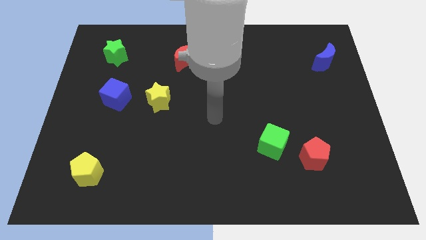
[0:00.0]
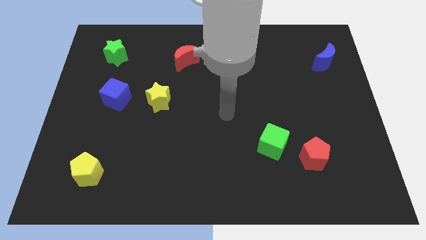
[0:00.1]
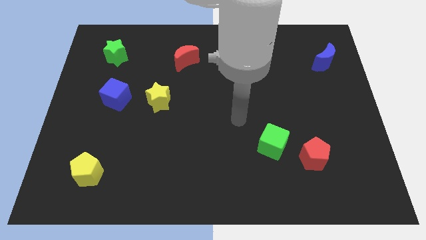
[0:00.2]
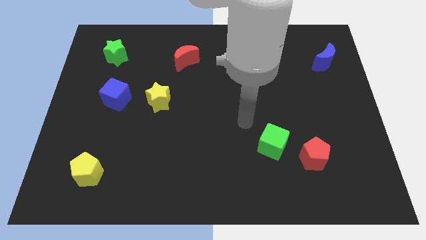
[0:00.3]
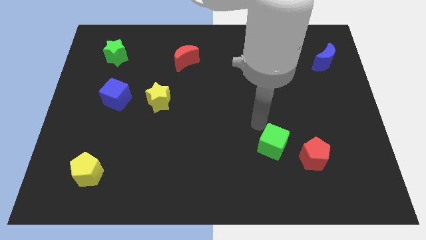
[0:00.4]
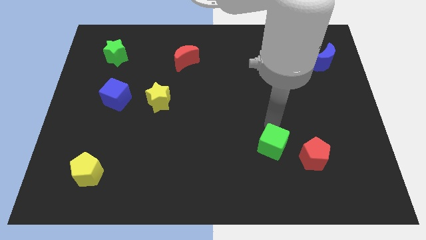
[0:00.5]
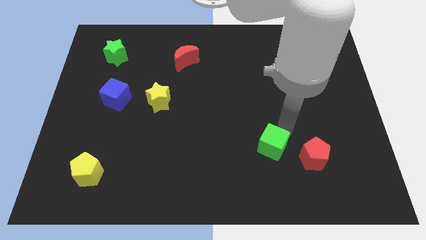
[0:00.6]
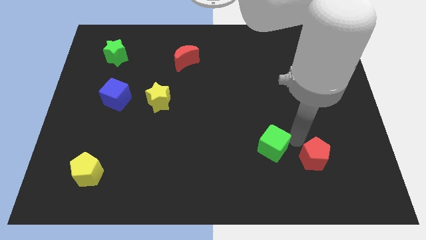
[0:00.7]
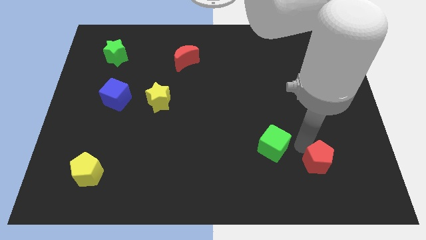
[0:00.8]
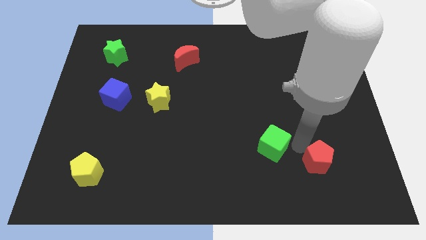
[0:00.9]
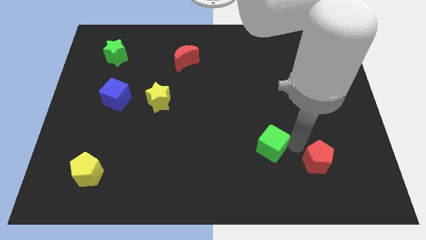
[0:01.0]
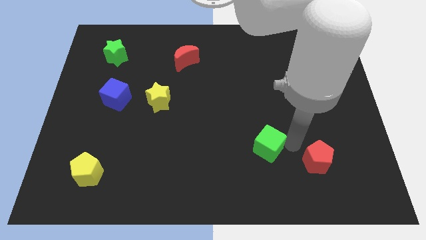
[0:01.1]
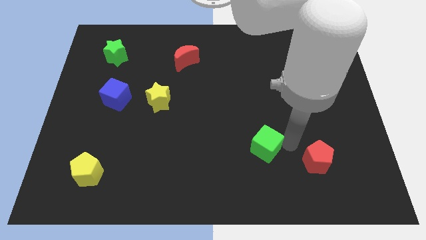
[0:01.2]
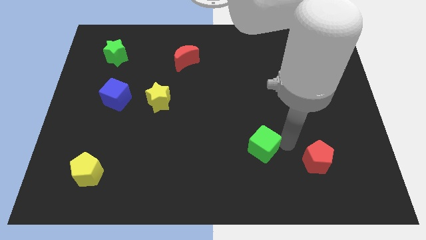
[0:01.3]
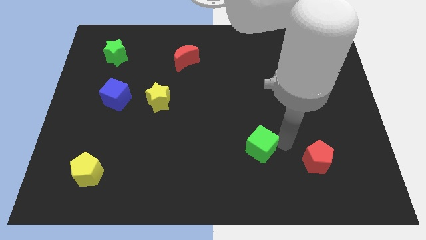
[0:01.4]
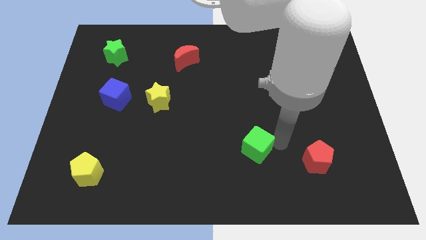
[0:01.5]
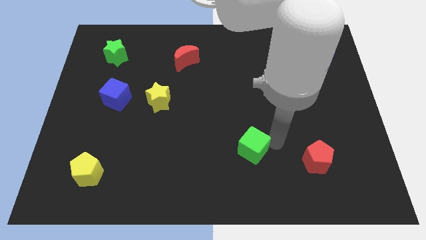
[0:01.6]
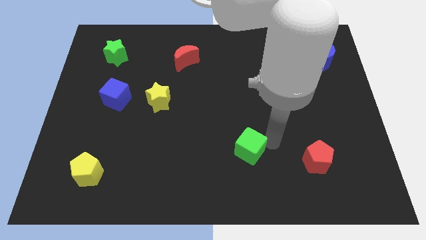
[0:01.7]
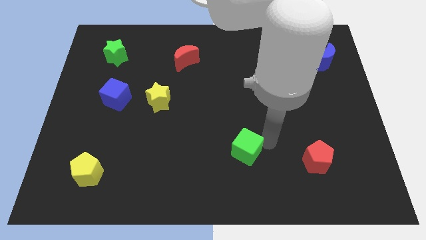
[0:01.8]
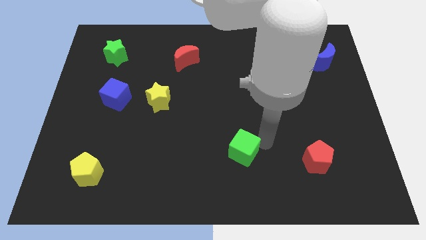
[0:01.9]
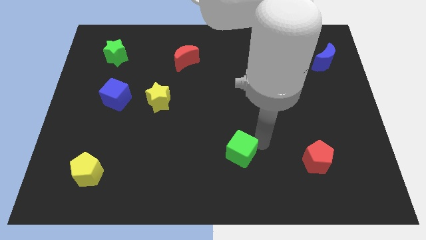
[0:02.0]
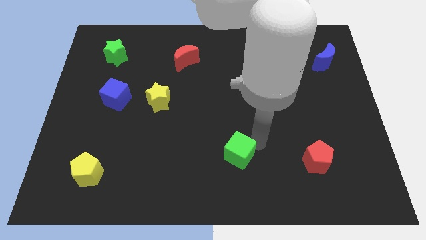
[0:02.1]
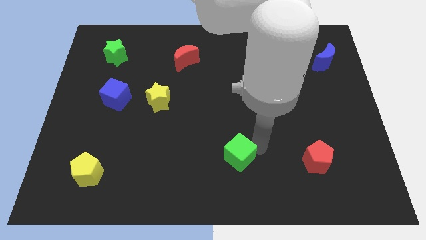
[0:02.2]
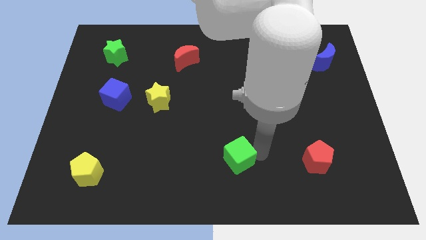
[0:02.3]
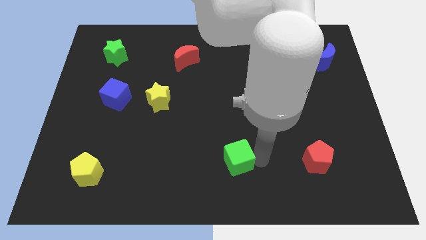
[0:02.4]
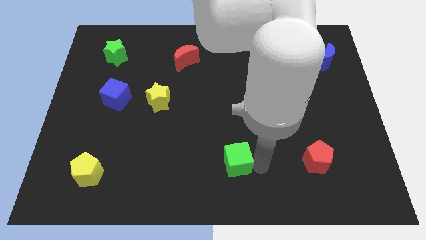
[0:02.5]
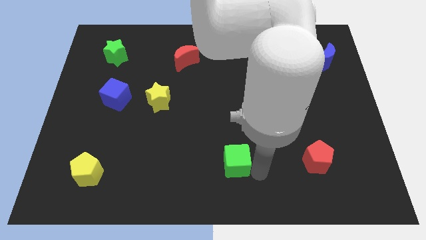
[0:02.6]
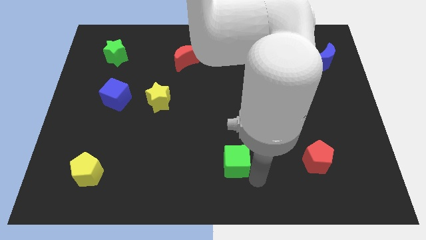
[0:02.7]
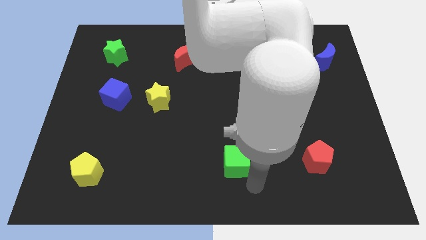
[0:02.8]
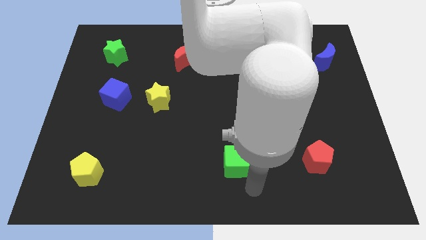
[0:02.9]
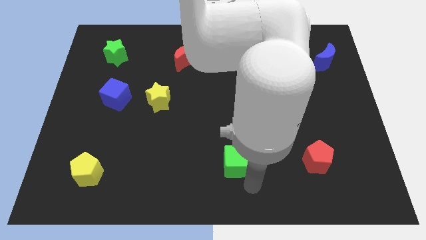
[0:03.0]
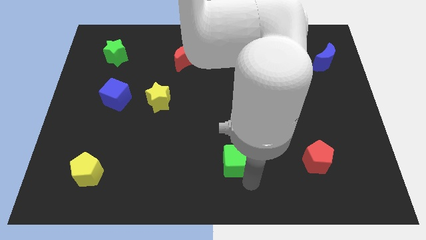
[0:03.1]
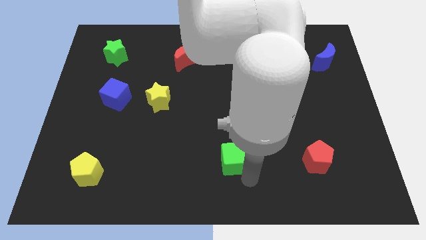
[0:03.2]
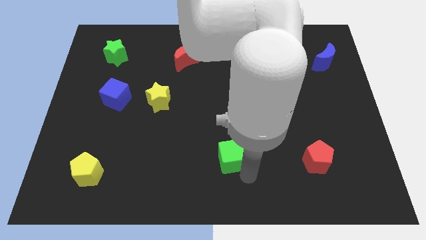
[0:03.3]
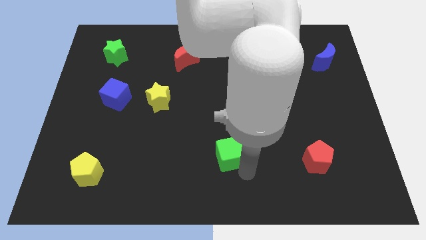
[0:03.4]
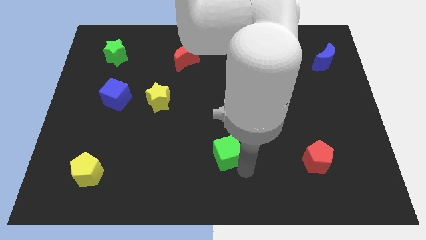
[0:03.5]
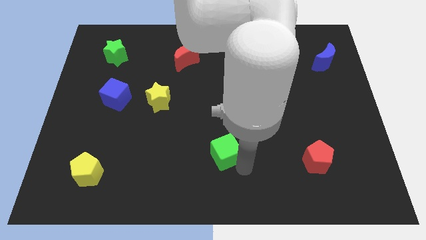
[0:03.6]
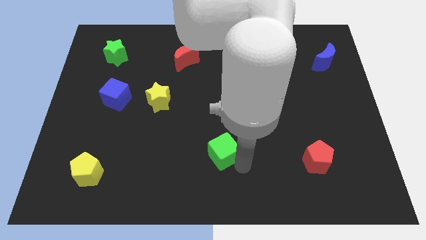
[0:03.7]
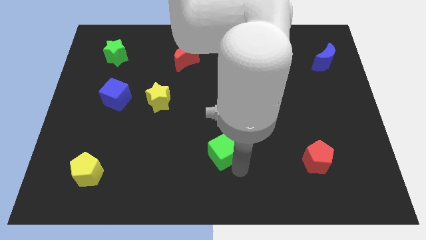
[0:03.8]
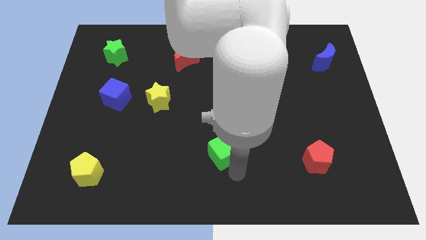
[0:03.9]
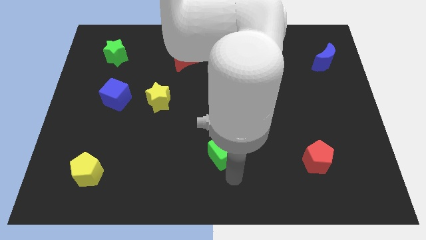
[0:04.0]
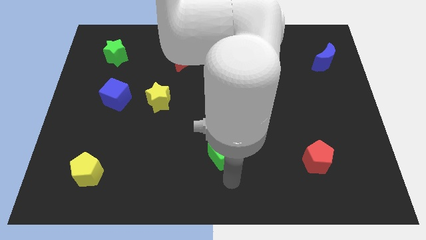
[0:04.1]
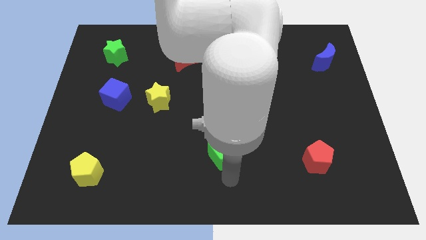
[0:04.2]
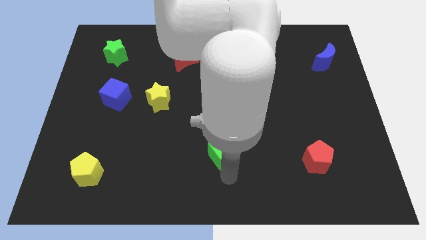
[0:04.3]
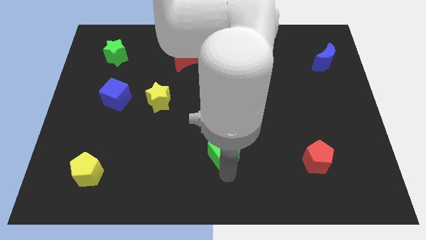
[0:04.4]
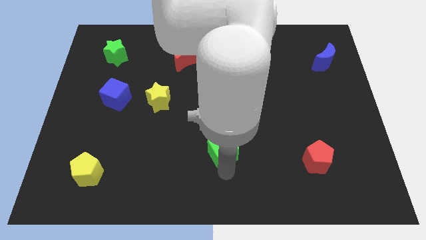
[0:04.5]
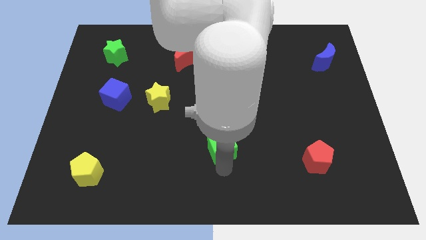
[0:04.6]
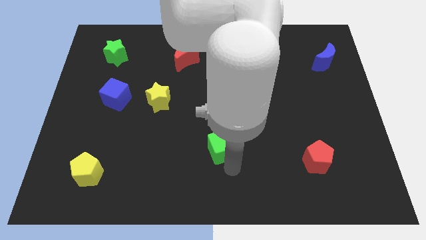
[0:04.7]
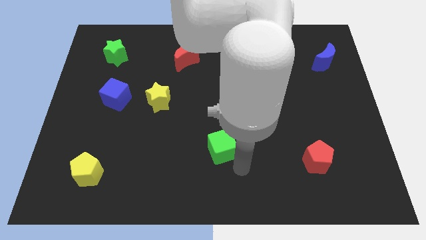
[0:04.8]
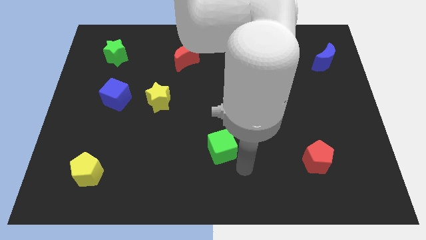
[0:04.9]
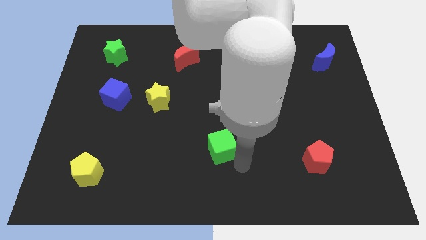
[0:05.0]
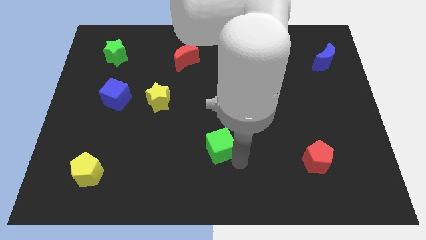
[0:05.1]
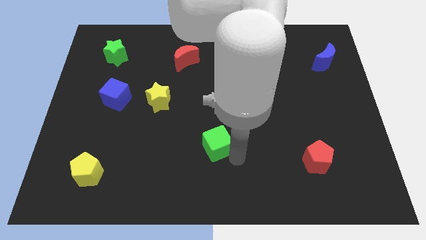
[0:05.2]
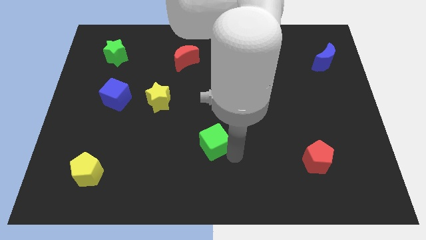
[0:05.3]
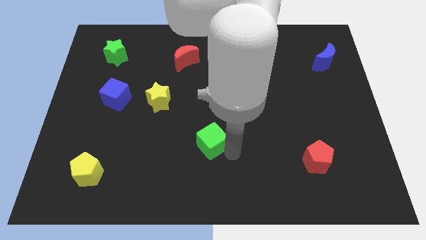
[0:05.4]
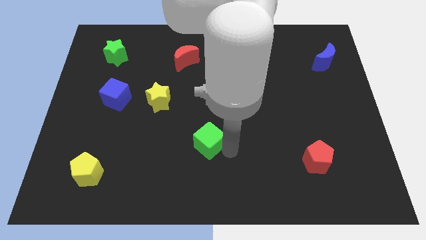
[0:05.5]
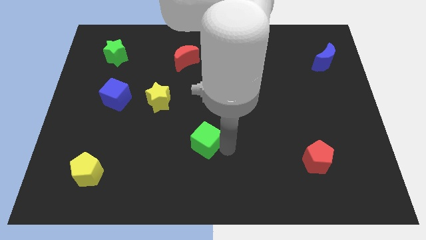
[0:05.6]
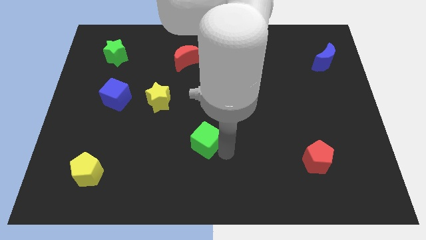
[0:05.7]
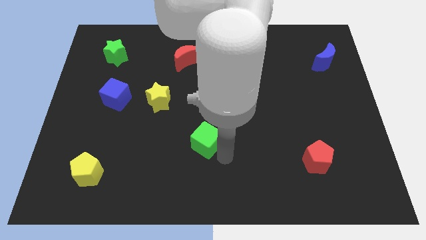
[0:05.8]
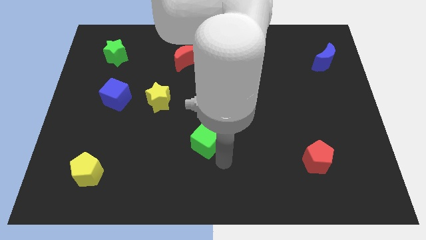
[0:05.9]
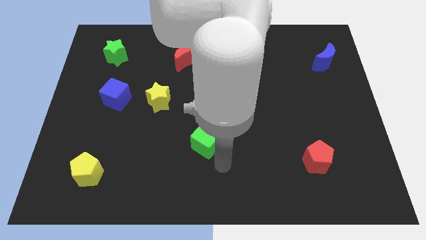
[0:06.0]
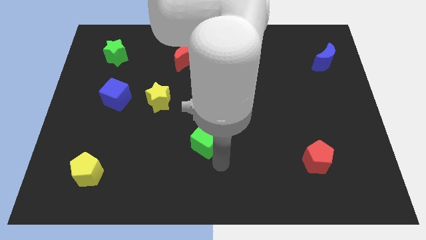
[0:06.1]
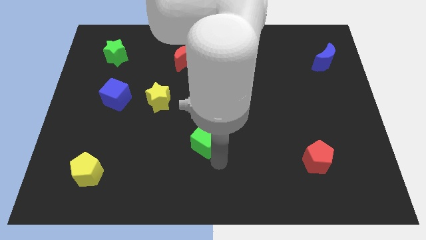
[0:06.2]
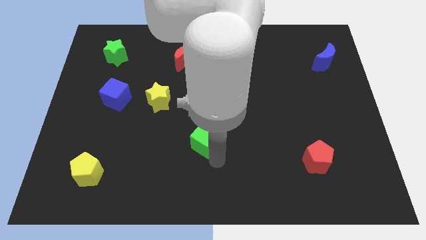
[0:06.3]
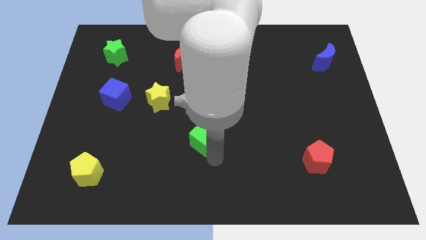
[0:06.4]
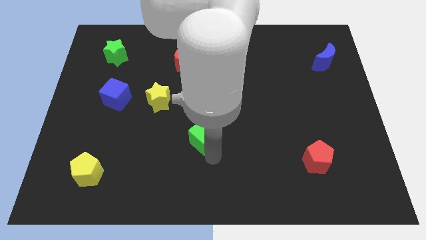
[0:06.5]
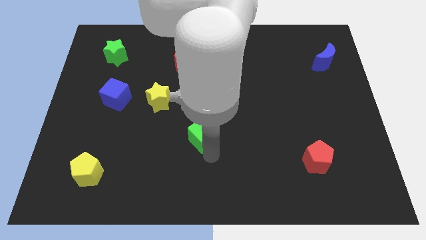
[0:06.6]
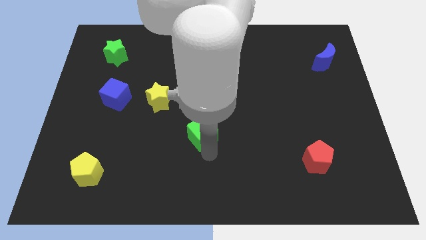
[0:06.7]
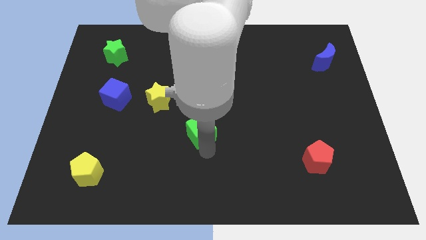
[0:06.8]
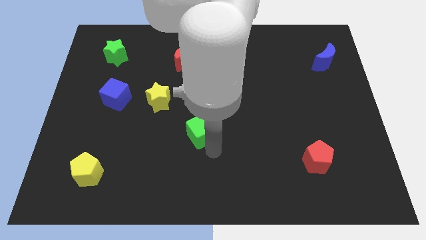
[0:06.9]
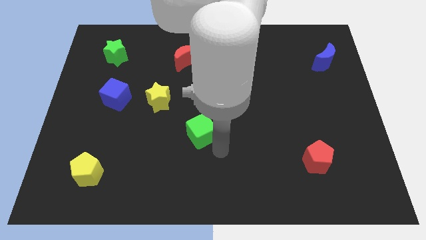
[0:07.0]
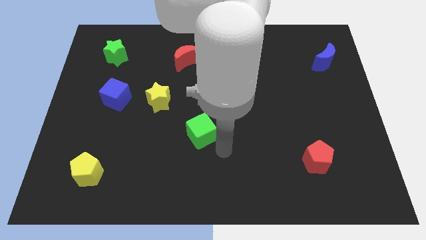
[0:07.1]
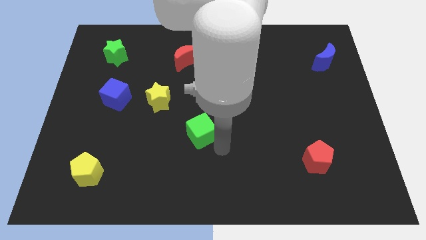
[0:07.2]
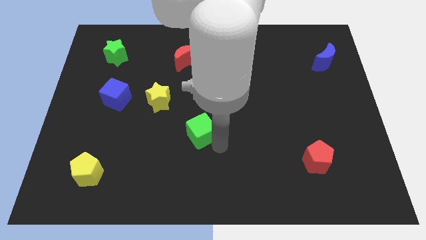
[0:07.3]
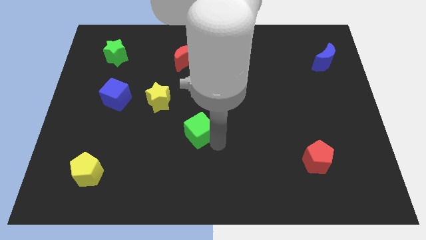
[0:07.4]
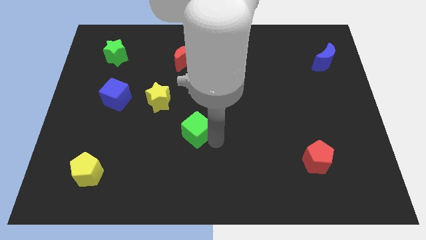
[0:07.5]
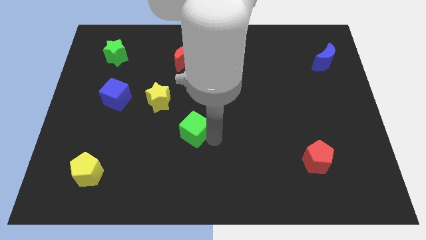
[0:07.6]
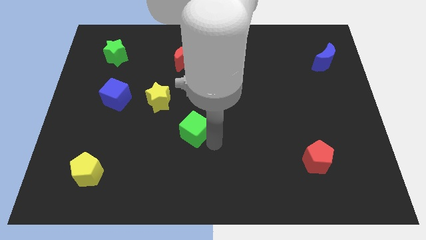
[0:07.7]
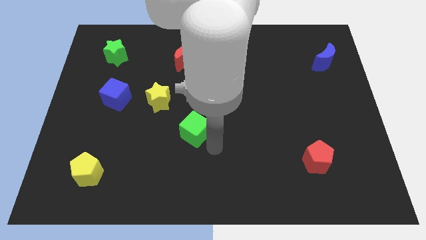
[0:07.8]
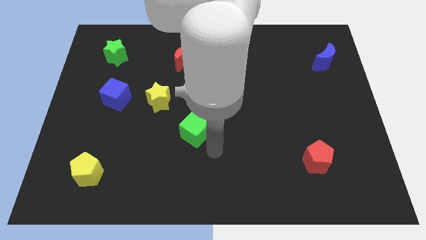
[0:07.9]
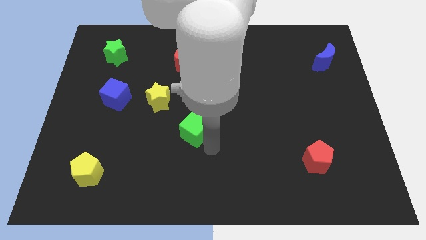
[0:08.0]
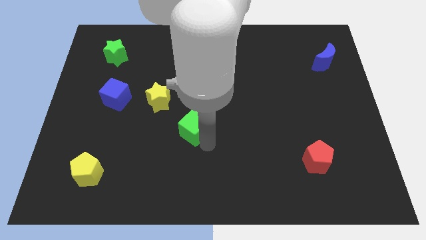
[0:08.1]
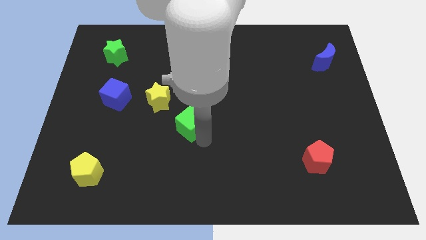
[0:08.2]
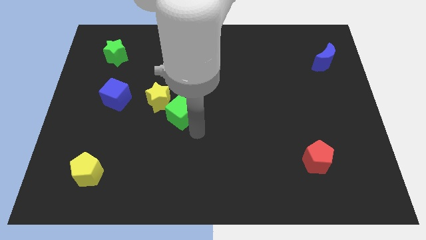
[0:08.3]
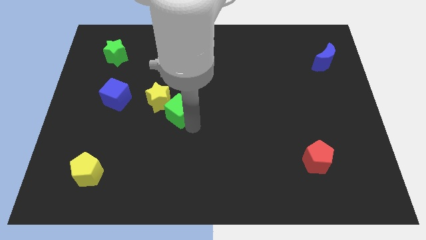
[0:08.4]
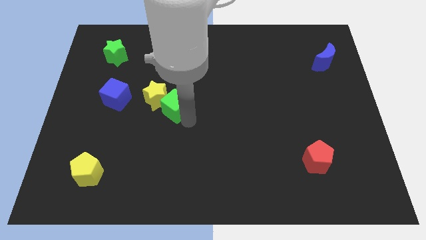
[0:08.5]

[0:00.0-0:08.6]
put the green cube next to the yellow star

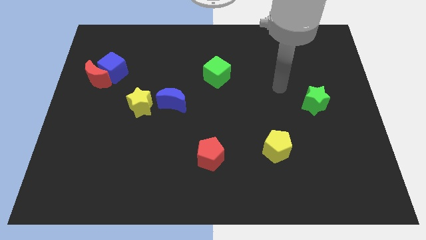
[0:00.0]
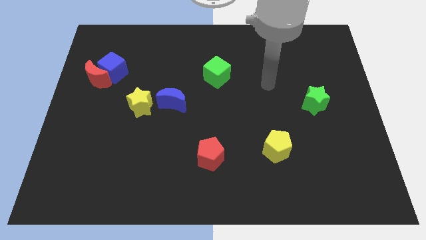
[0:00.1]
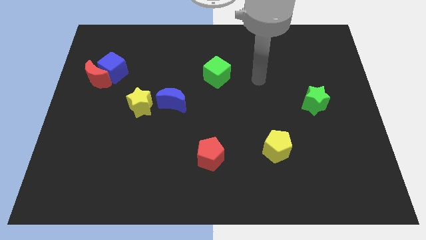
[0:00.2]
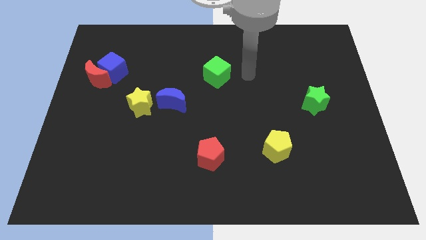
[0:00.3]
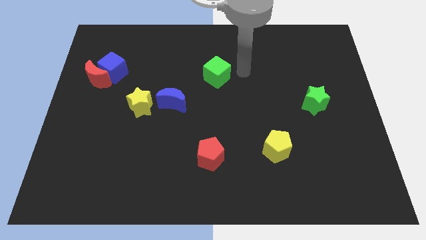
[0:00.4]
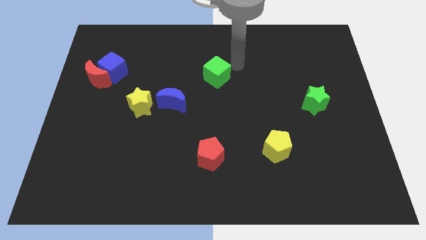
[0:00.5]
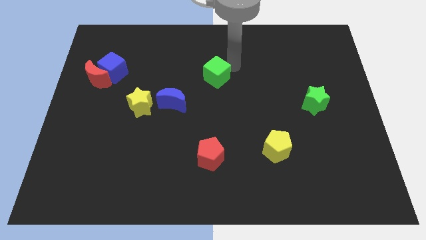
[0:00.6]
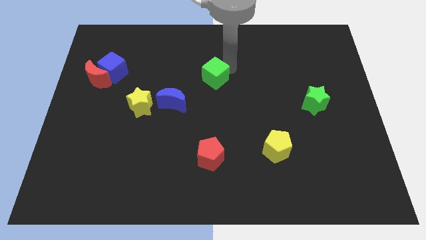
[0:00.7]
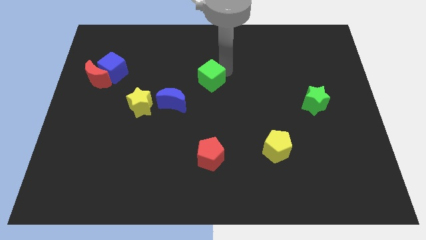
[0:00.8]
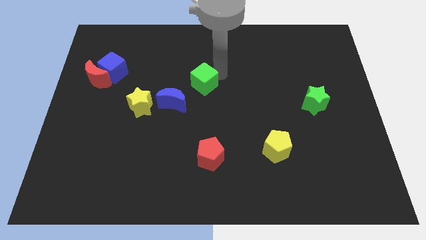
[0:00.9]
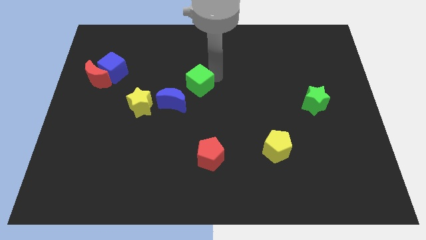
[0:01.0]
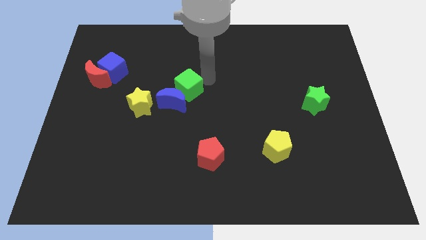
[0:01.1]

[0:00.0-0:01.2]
push the green cube close to the blue moon
